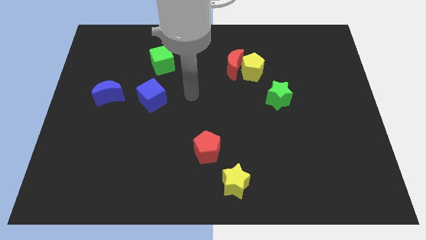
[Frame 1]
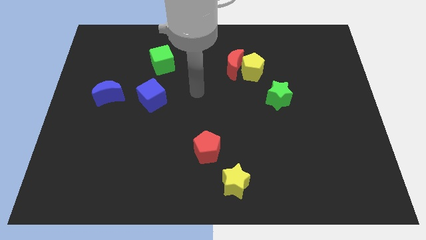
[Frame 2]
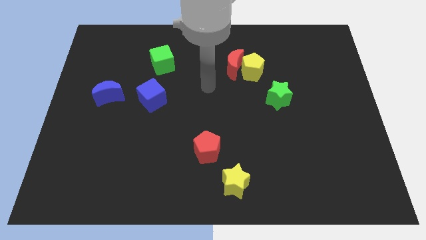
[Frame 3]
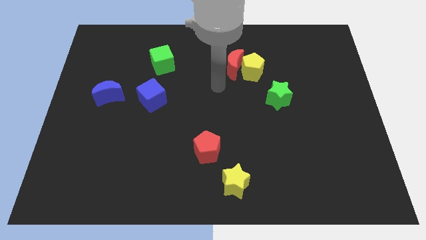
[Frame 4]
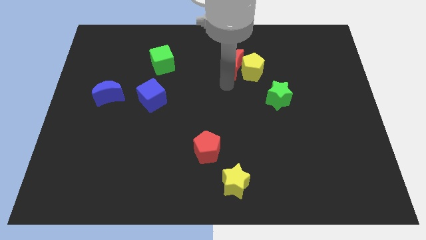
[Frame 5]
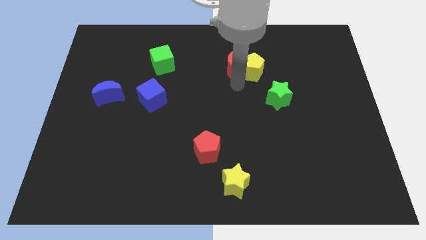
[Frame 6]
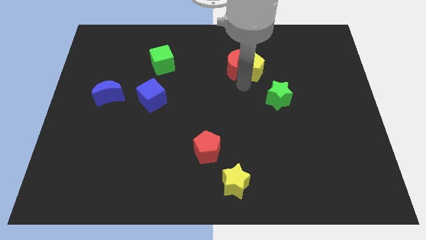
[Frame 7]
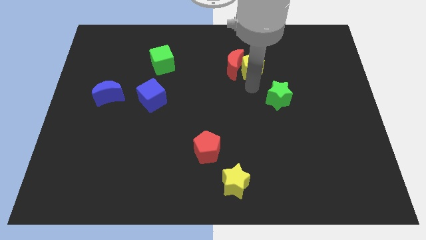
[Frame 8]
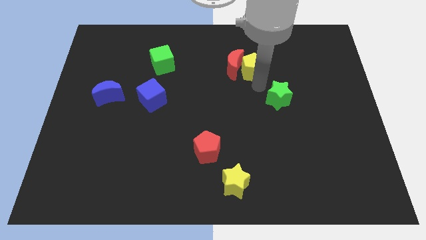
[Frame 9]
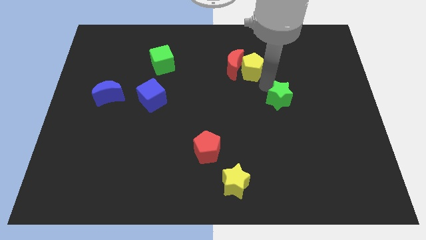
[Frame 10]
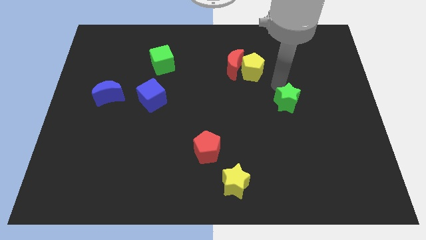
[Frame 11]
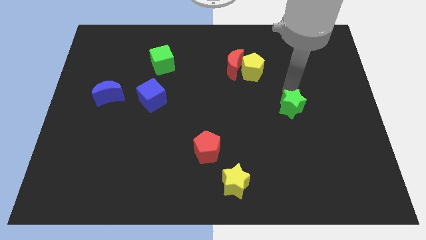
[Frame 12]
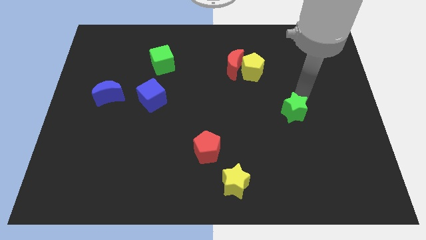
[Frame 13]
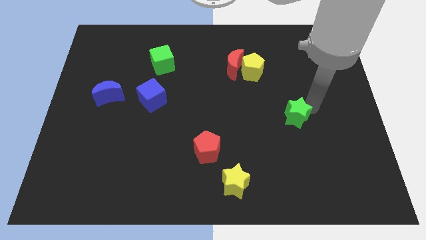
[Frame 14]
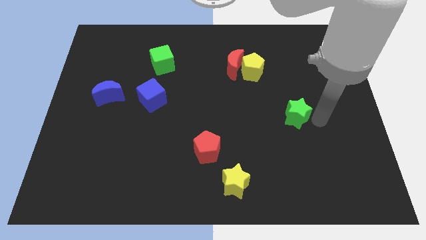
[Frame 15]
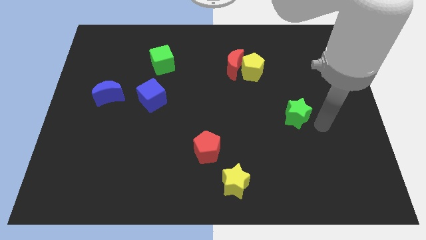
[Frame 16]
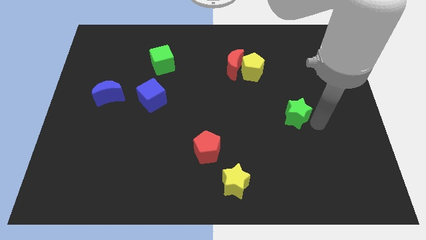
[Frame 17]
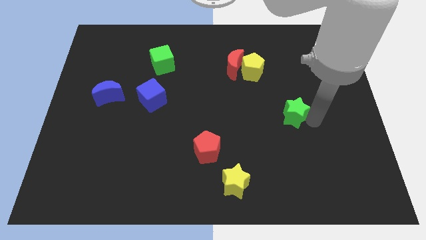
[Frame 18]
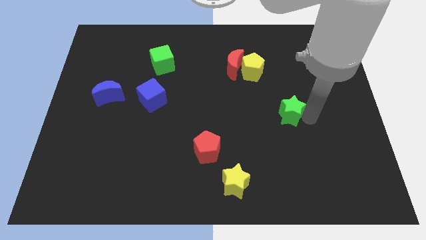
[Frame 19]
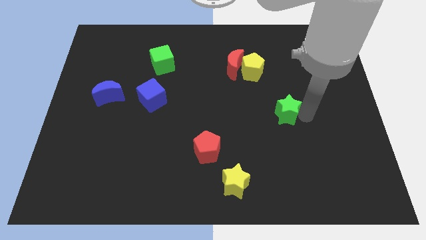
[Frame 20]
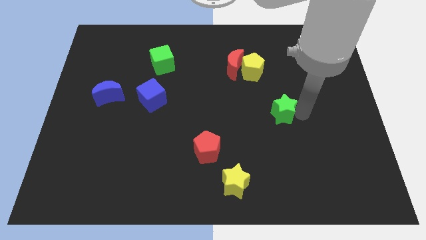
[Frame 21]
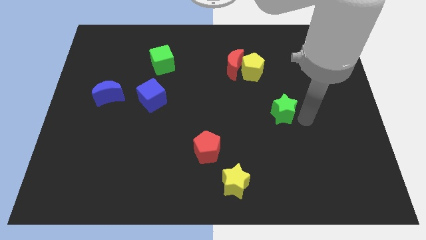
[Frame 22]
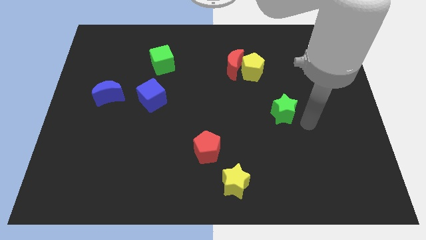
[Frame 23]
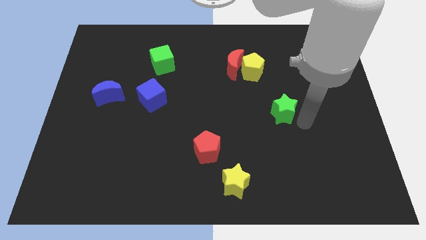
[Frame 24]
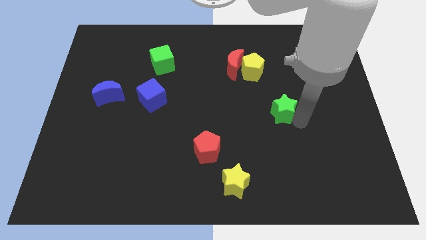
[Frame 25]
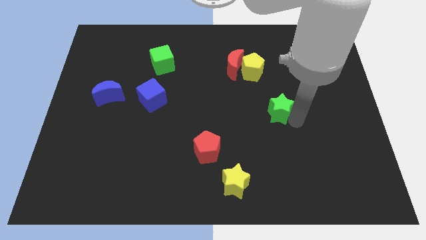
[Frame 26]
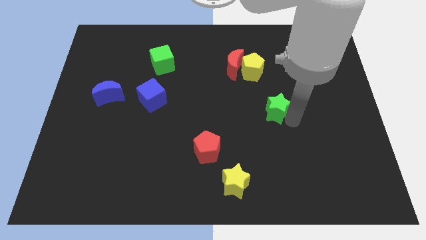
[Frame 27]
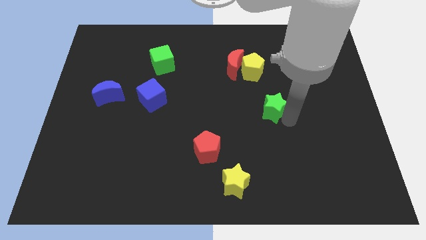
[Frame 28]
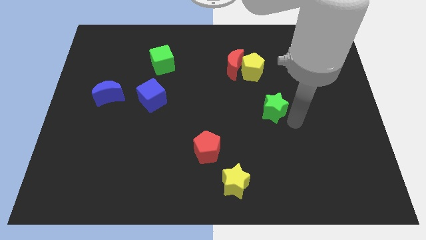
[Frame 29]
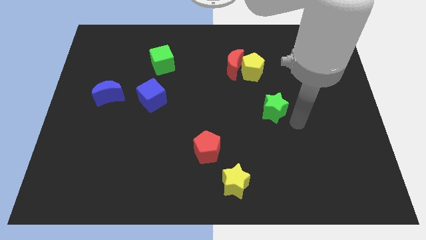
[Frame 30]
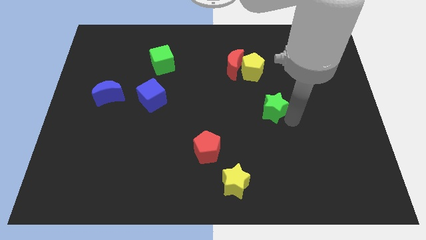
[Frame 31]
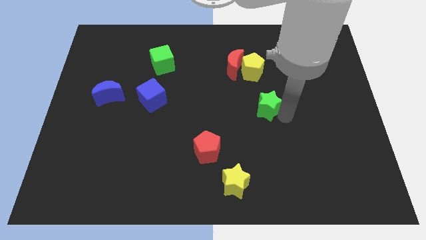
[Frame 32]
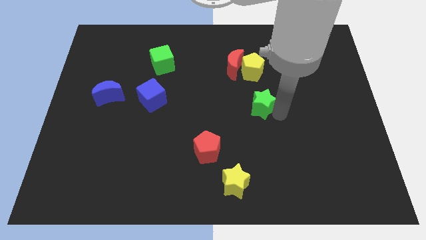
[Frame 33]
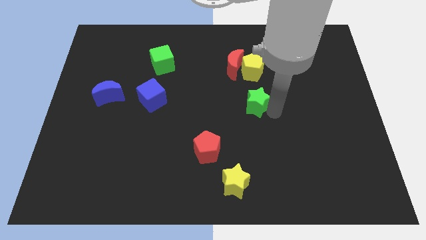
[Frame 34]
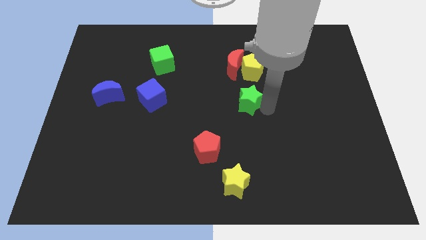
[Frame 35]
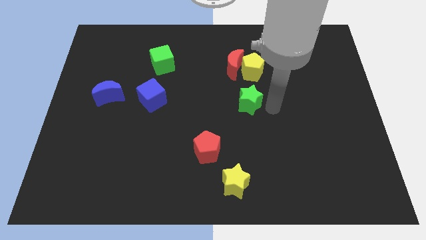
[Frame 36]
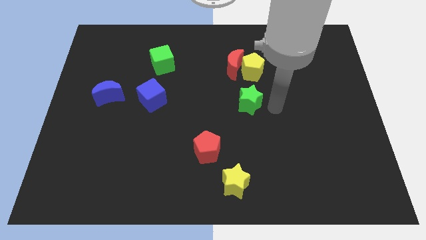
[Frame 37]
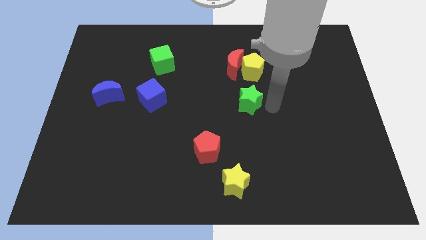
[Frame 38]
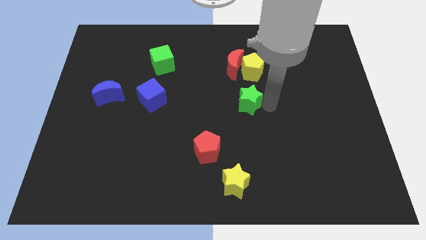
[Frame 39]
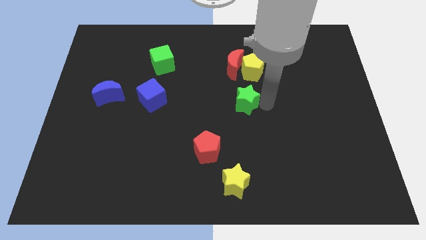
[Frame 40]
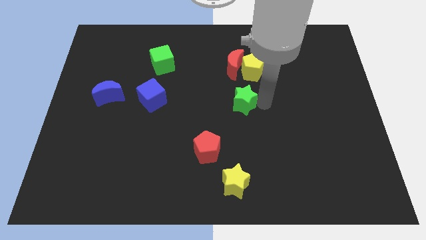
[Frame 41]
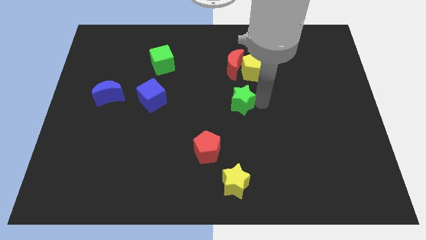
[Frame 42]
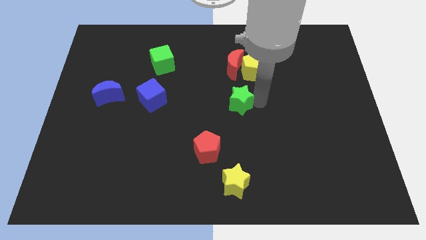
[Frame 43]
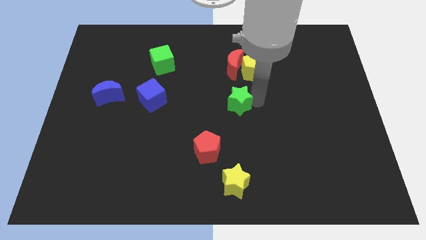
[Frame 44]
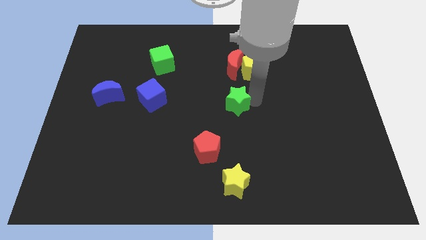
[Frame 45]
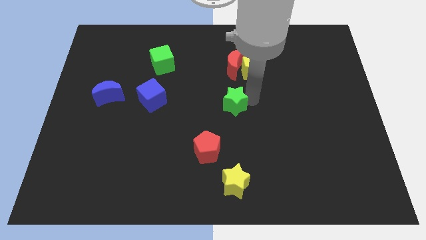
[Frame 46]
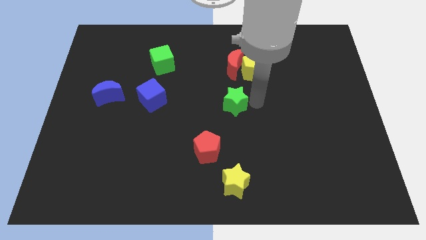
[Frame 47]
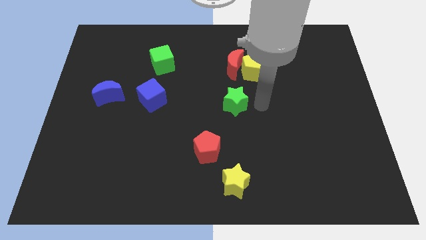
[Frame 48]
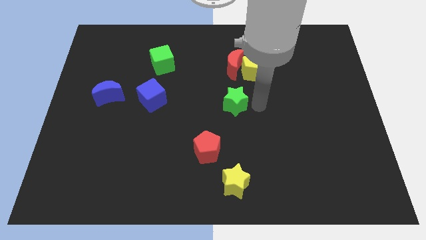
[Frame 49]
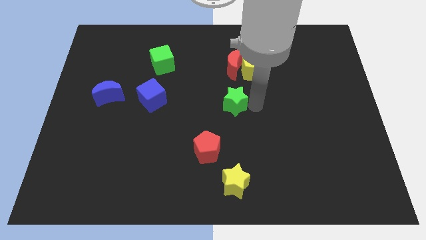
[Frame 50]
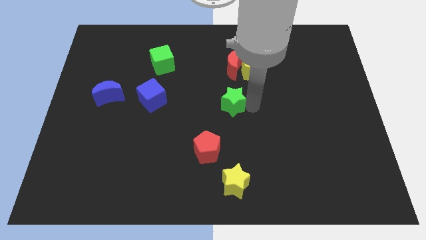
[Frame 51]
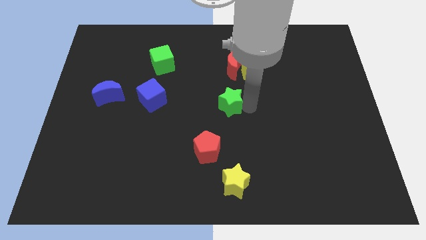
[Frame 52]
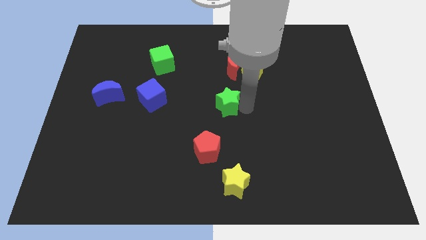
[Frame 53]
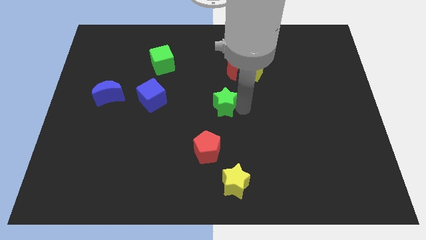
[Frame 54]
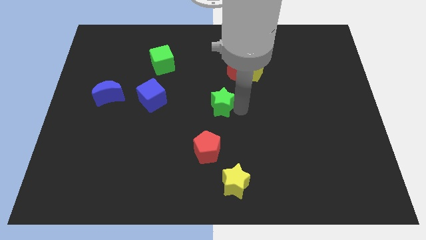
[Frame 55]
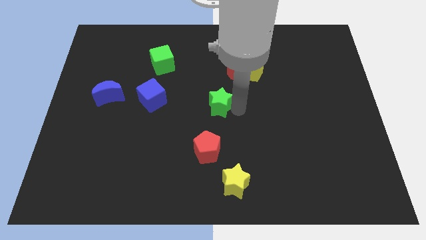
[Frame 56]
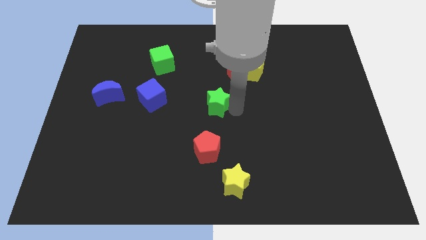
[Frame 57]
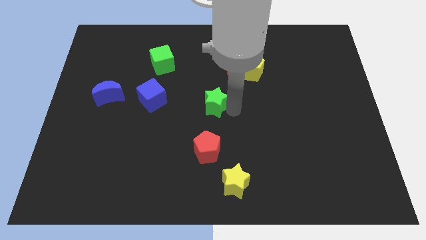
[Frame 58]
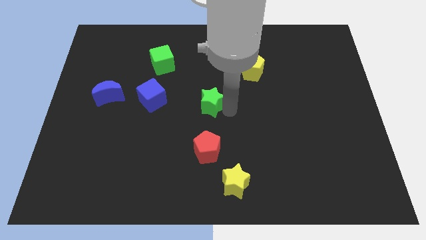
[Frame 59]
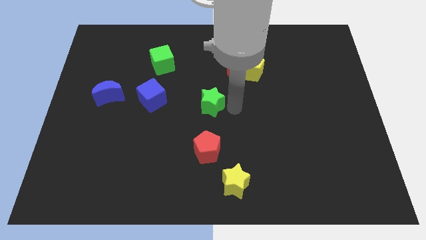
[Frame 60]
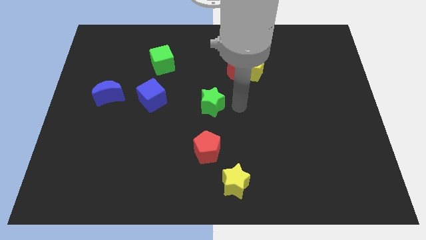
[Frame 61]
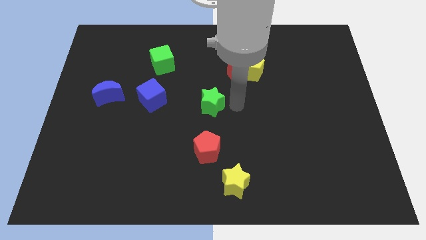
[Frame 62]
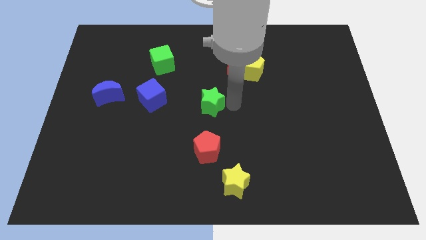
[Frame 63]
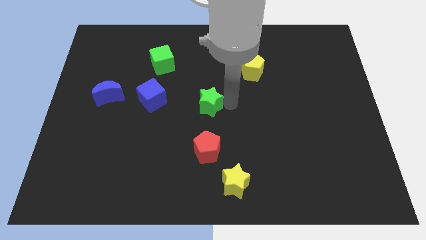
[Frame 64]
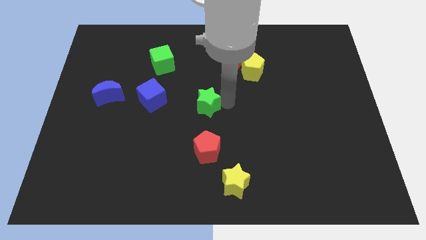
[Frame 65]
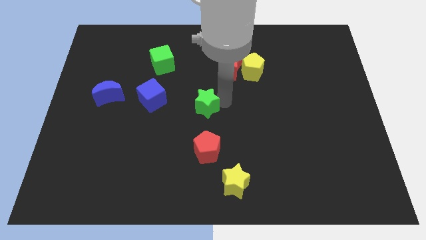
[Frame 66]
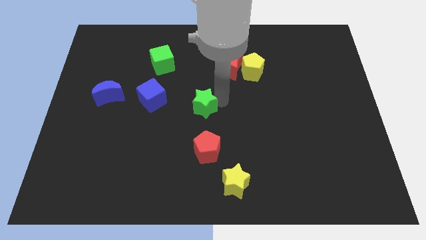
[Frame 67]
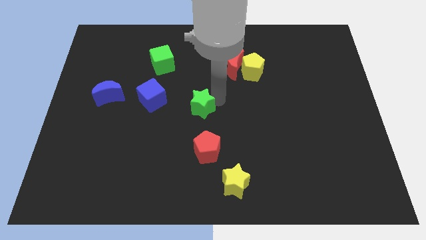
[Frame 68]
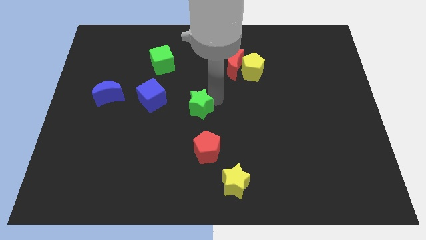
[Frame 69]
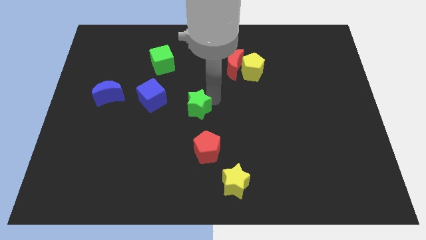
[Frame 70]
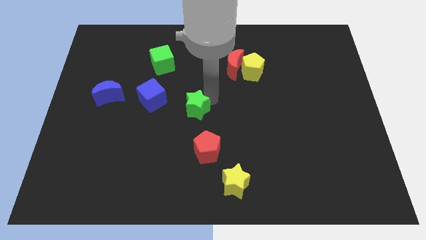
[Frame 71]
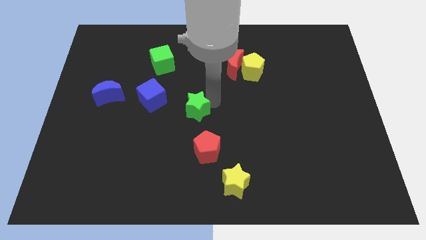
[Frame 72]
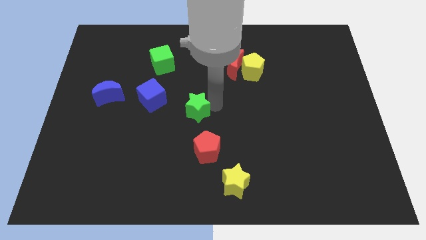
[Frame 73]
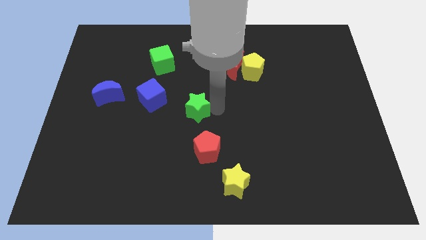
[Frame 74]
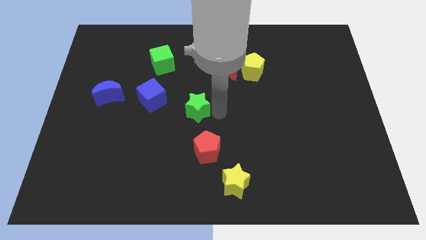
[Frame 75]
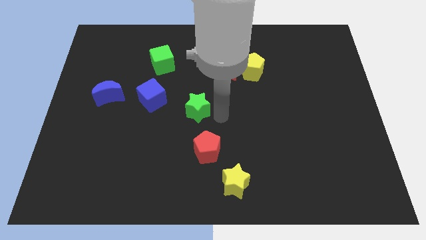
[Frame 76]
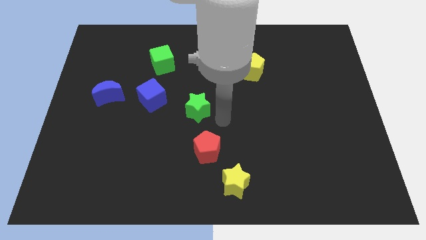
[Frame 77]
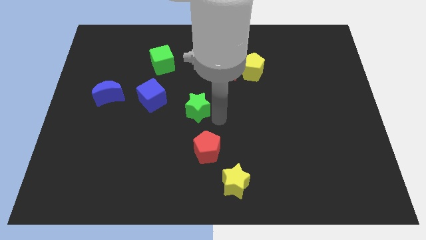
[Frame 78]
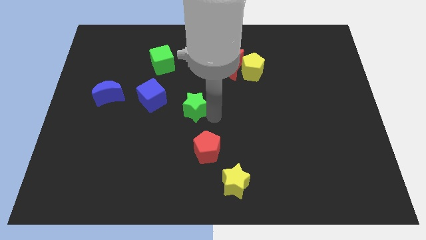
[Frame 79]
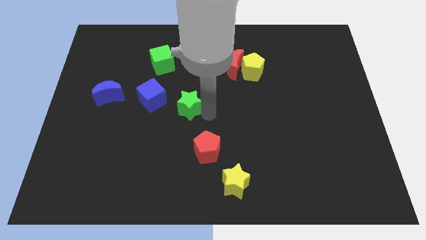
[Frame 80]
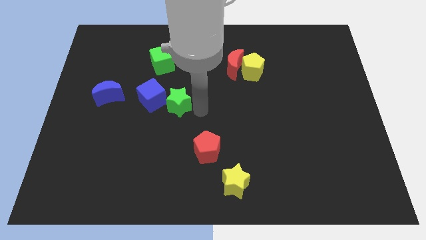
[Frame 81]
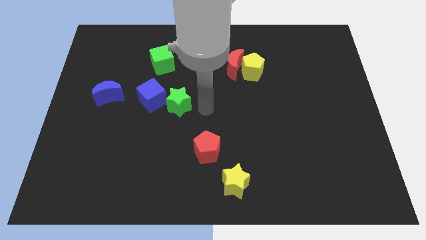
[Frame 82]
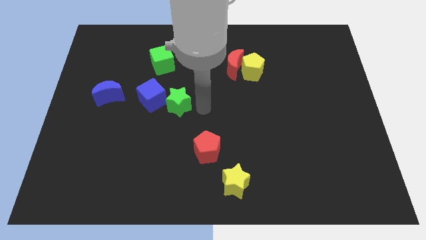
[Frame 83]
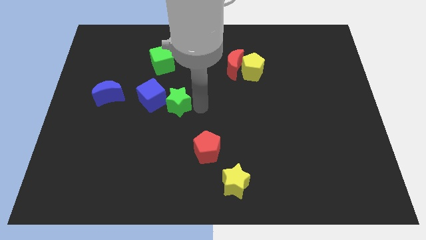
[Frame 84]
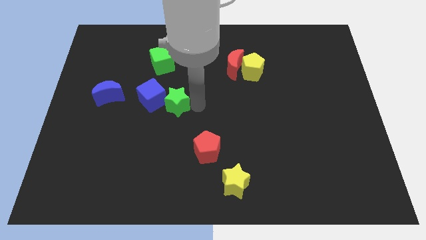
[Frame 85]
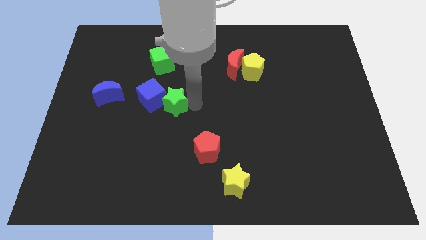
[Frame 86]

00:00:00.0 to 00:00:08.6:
put the green star next to the blue cube
